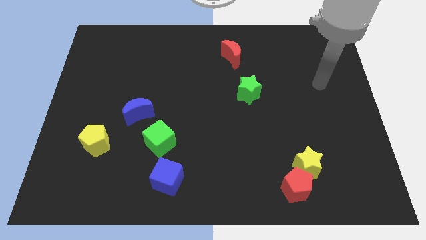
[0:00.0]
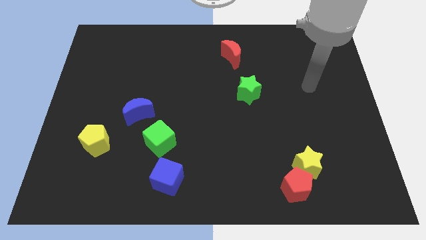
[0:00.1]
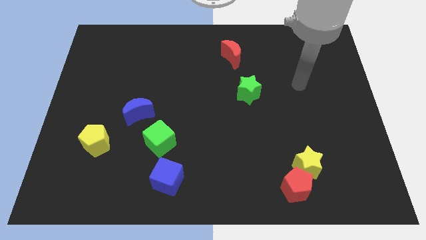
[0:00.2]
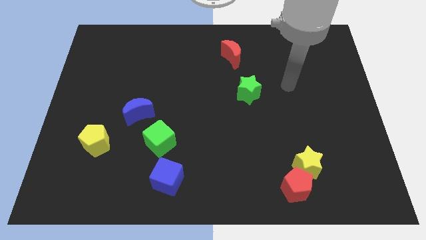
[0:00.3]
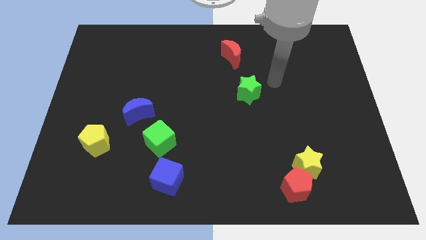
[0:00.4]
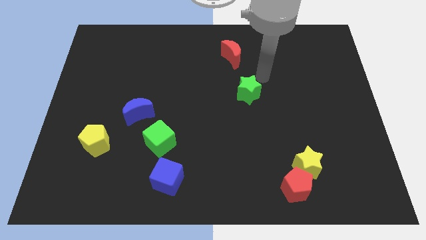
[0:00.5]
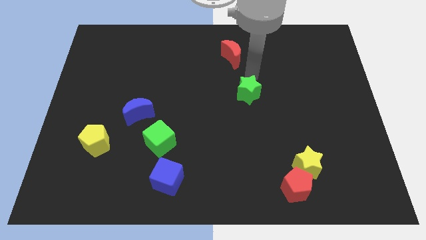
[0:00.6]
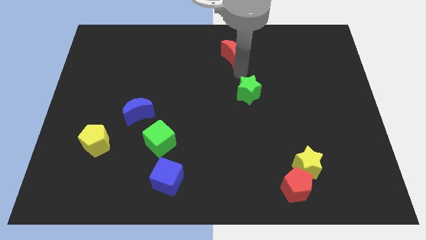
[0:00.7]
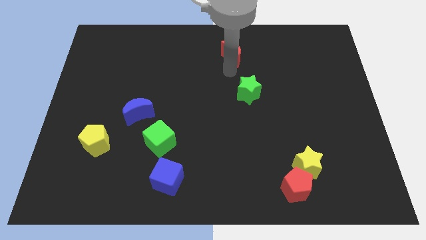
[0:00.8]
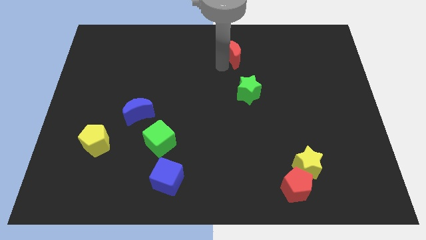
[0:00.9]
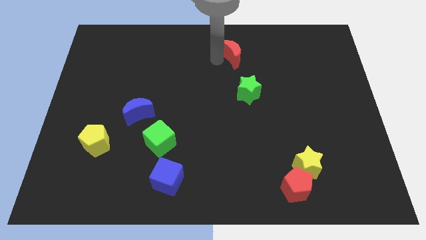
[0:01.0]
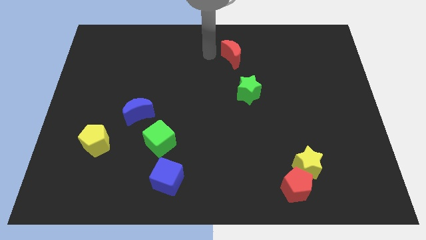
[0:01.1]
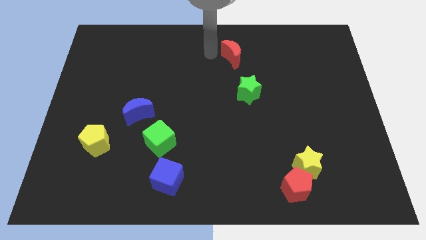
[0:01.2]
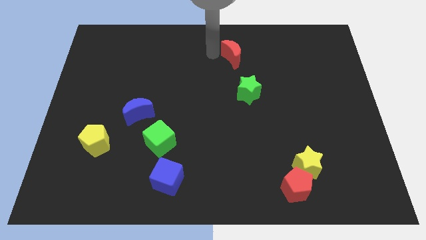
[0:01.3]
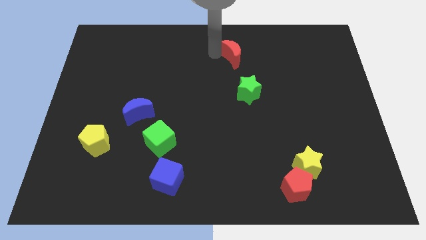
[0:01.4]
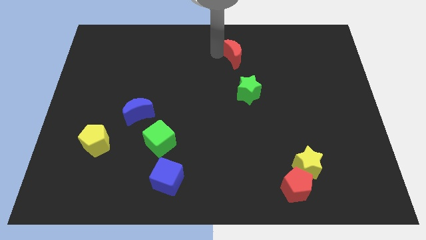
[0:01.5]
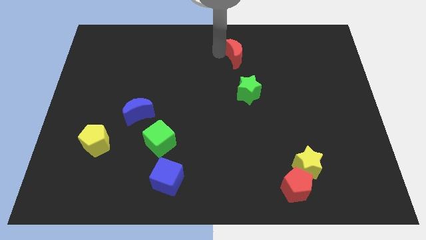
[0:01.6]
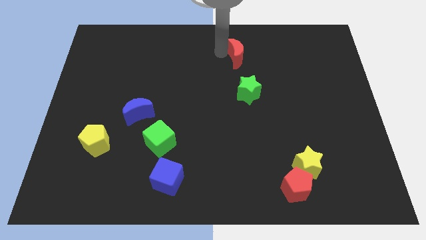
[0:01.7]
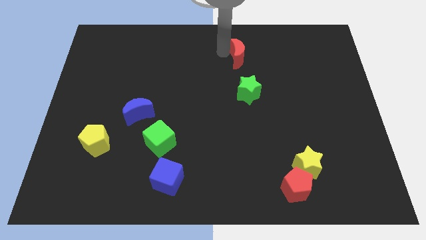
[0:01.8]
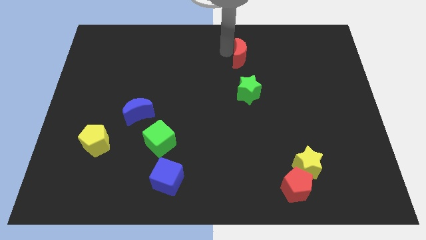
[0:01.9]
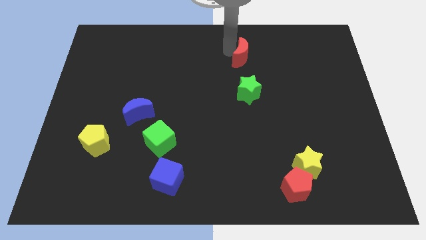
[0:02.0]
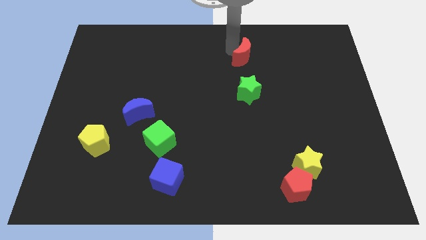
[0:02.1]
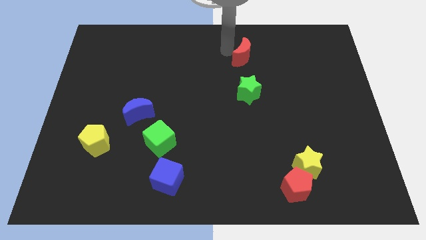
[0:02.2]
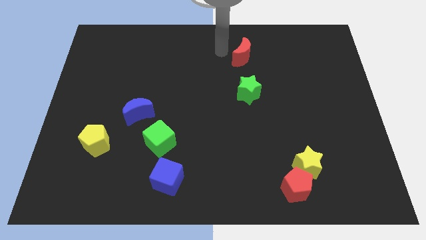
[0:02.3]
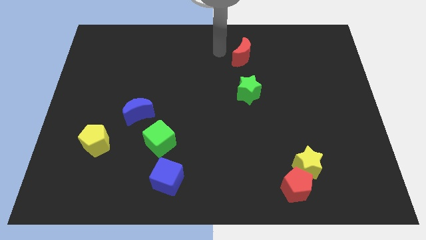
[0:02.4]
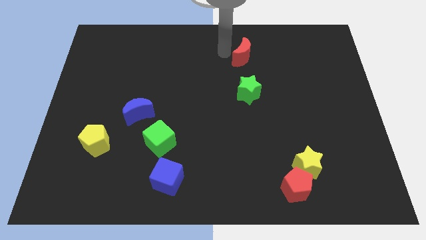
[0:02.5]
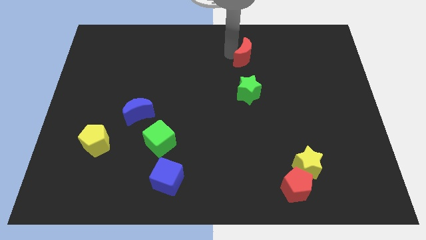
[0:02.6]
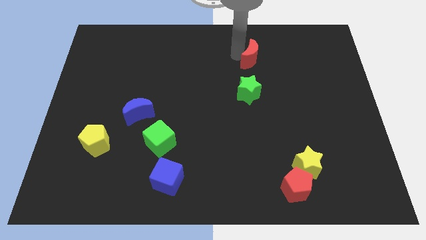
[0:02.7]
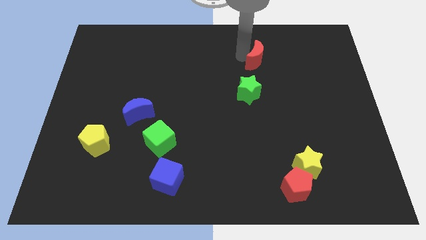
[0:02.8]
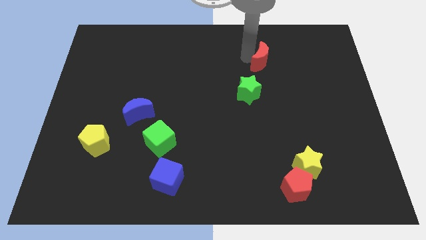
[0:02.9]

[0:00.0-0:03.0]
slightly move the red moon right

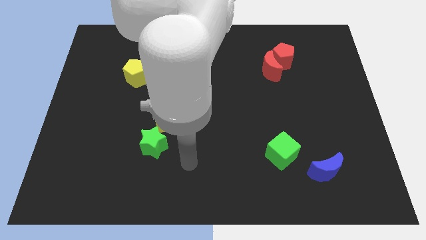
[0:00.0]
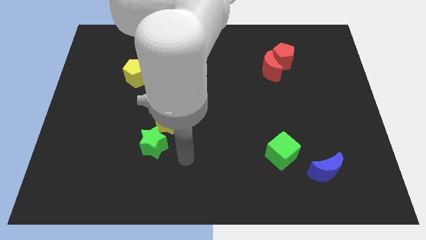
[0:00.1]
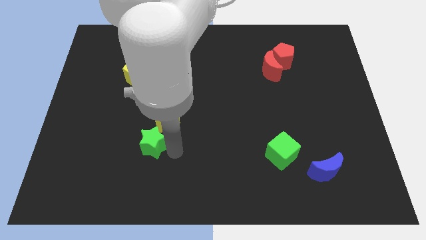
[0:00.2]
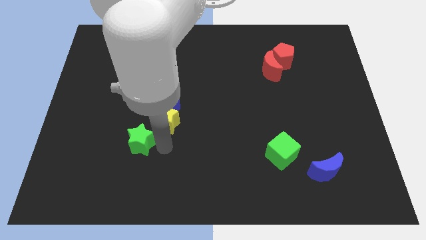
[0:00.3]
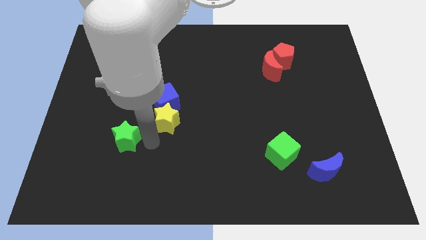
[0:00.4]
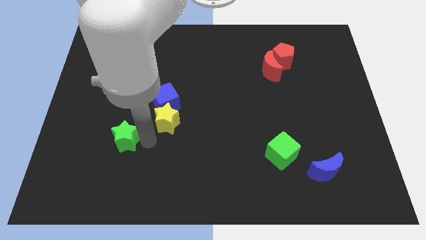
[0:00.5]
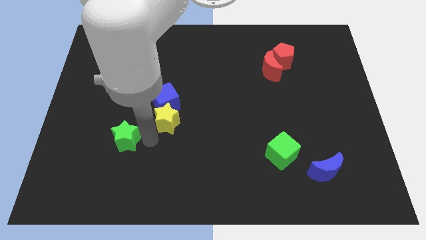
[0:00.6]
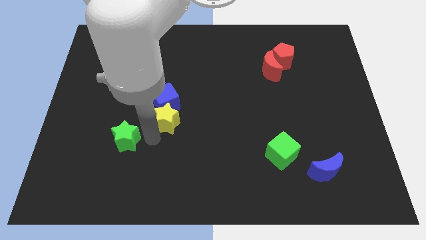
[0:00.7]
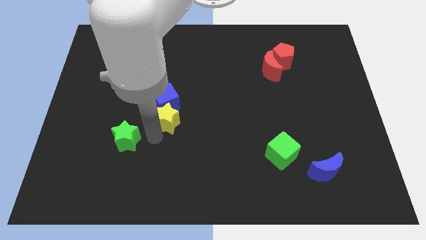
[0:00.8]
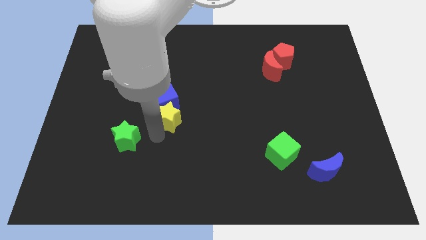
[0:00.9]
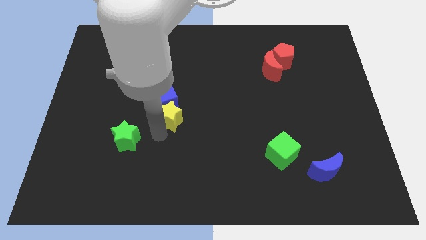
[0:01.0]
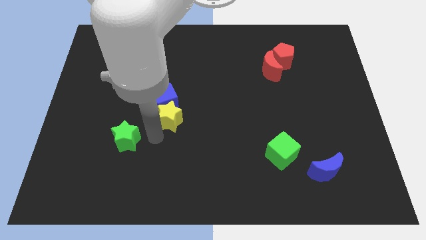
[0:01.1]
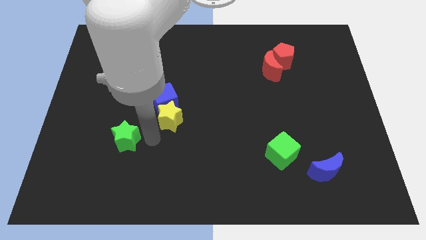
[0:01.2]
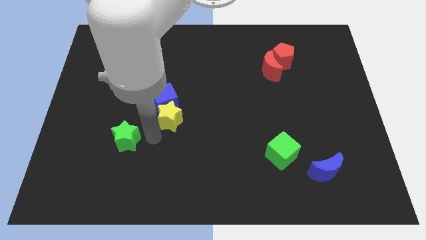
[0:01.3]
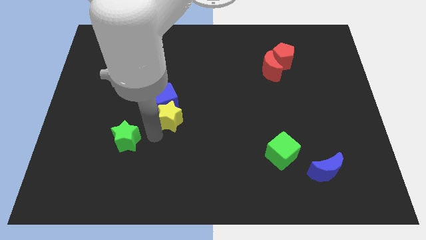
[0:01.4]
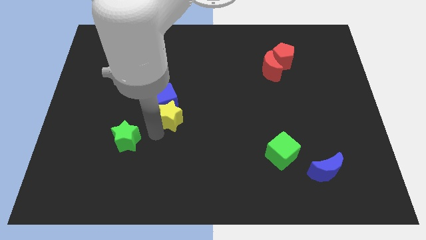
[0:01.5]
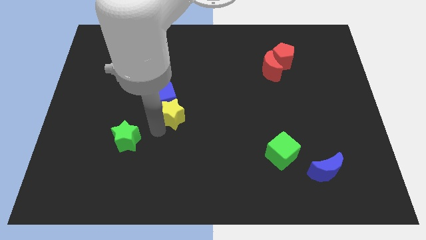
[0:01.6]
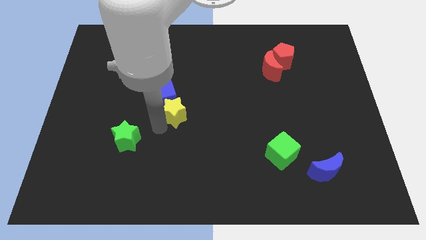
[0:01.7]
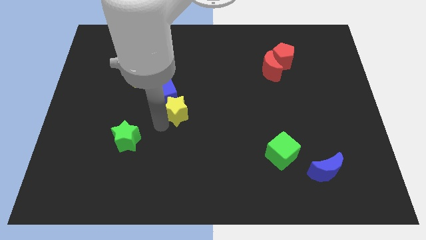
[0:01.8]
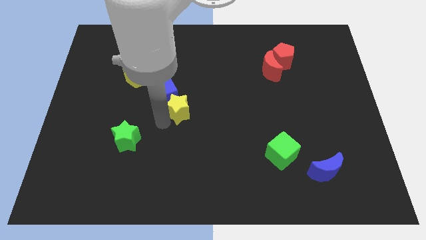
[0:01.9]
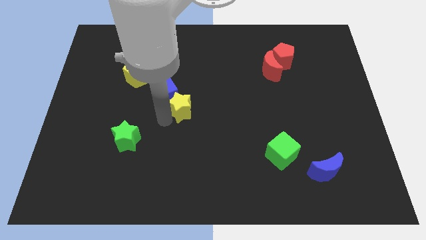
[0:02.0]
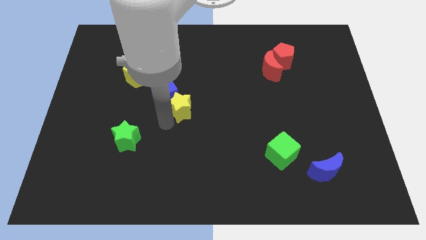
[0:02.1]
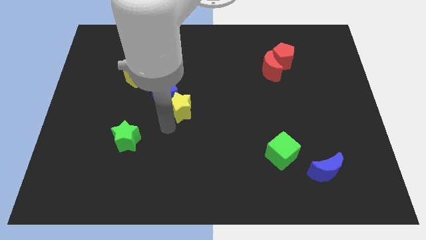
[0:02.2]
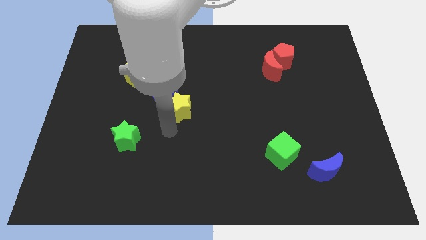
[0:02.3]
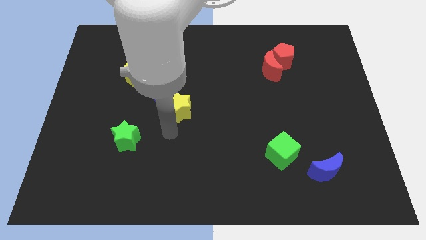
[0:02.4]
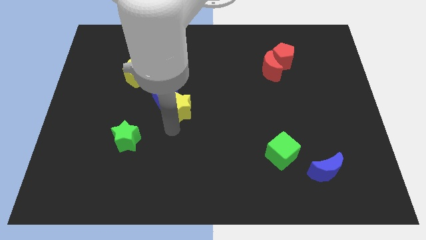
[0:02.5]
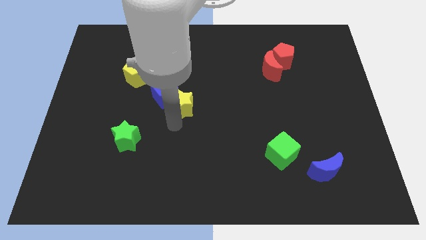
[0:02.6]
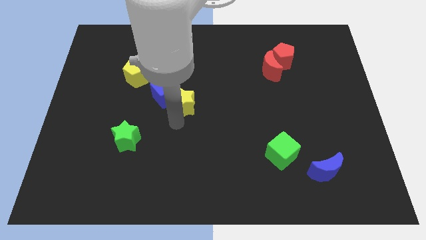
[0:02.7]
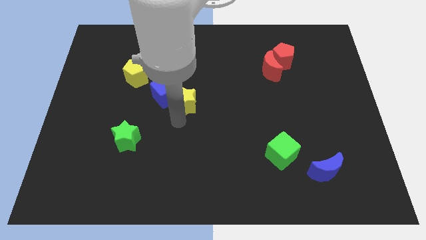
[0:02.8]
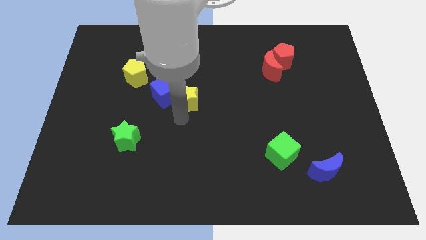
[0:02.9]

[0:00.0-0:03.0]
move the yellow star diagonally upwards and right a bit

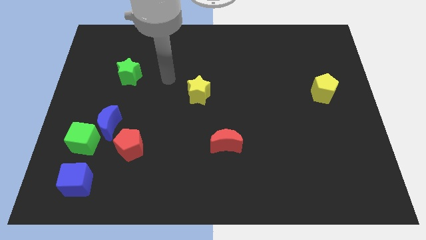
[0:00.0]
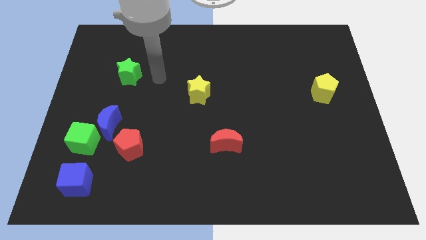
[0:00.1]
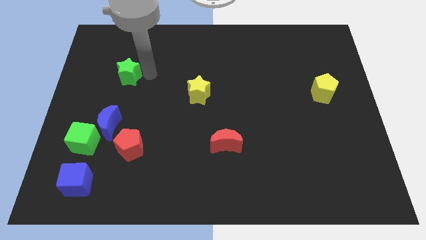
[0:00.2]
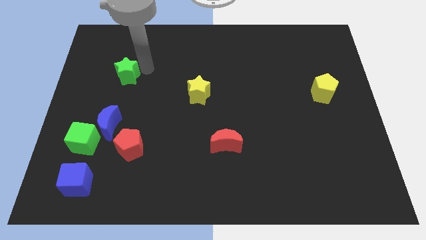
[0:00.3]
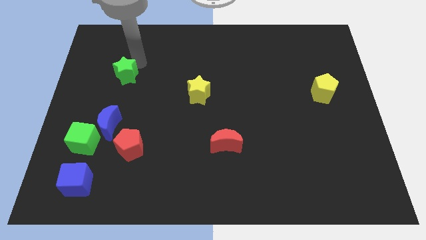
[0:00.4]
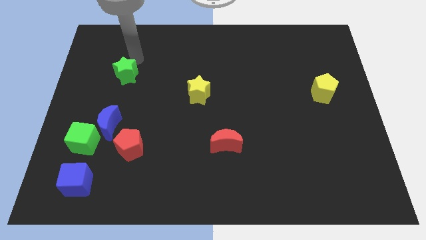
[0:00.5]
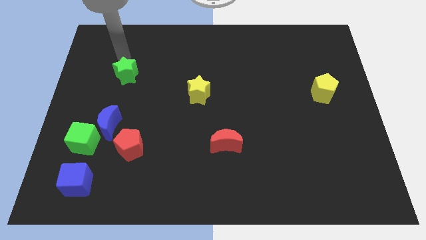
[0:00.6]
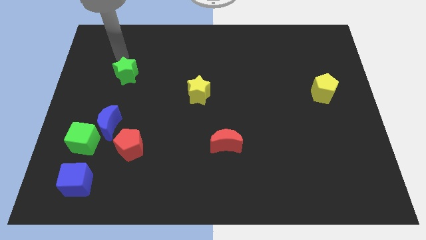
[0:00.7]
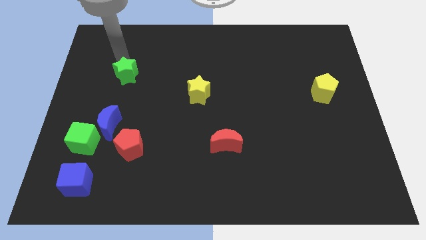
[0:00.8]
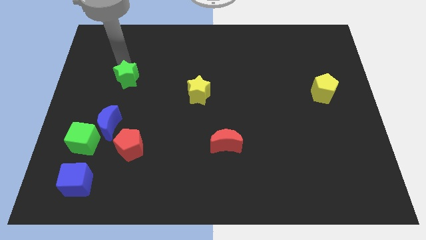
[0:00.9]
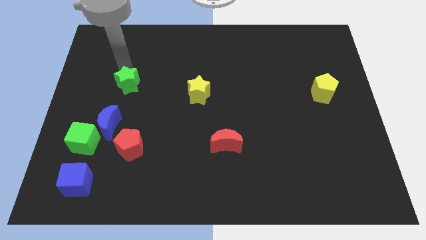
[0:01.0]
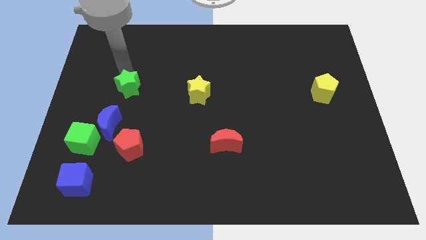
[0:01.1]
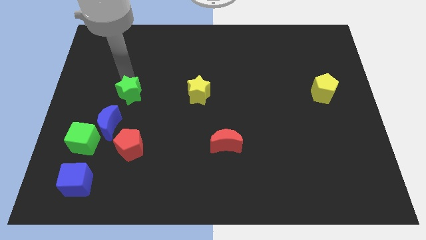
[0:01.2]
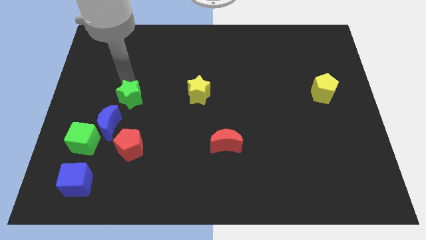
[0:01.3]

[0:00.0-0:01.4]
slide the green star down somewhat

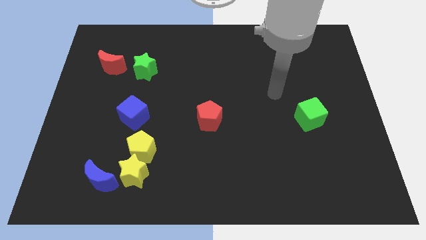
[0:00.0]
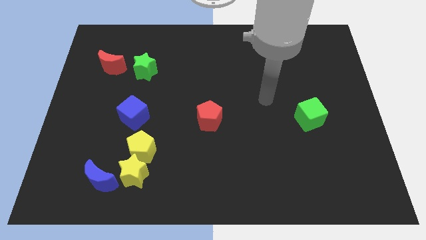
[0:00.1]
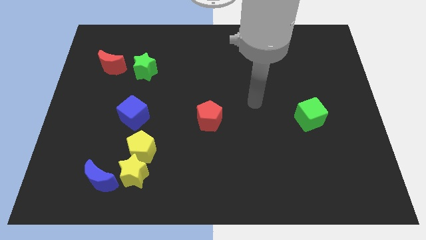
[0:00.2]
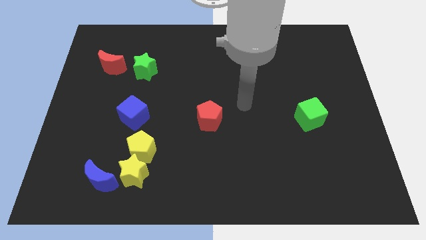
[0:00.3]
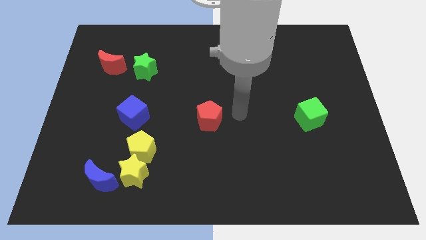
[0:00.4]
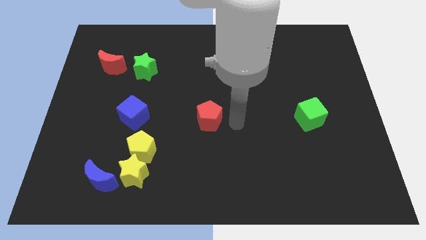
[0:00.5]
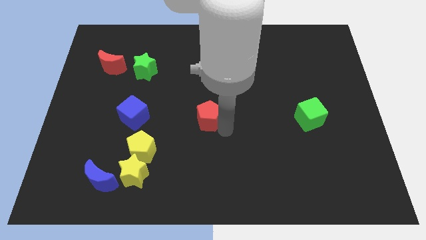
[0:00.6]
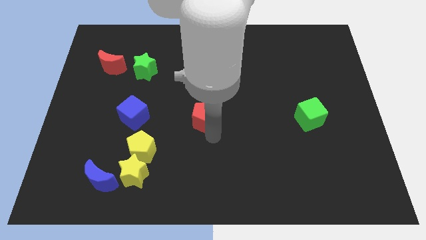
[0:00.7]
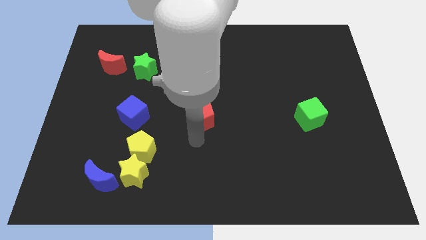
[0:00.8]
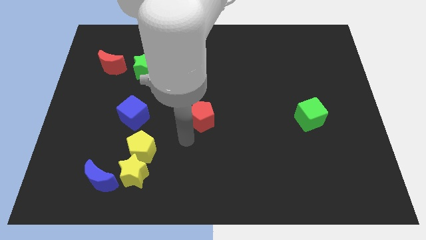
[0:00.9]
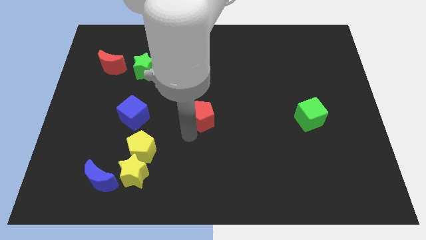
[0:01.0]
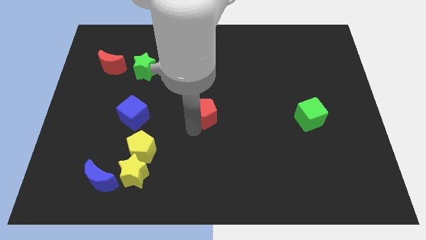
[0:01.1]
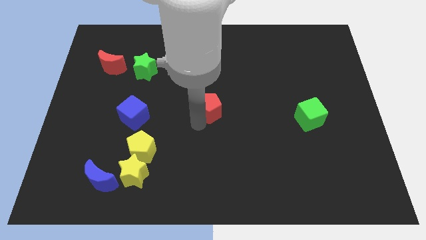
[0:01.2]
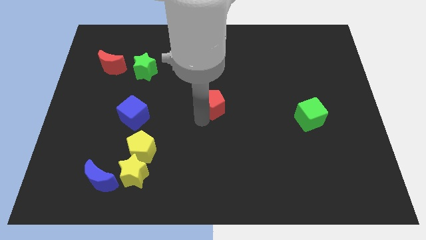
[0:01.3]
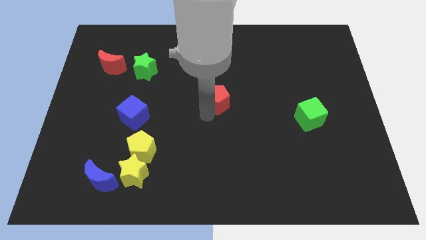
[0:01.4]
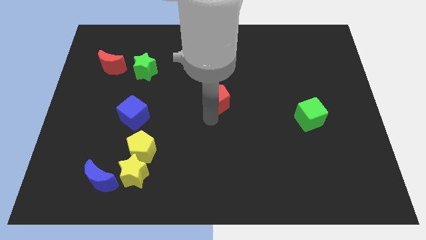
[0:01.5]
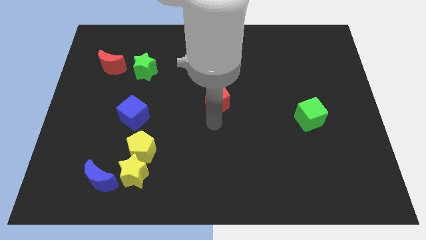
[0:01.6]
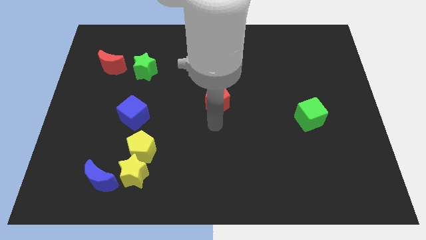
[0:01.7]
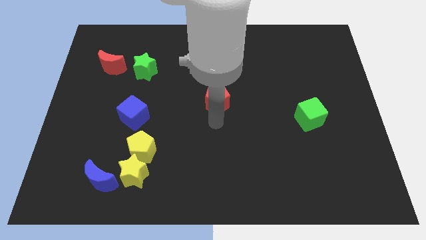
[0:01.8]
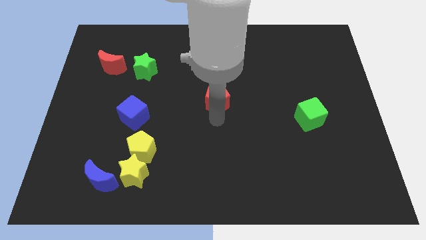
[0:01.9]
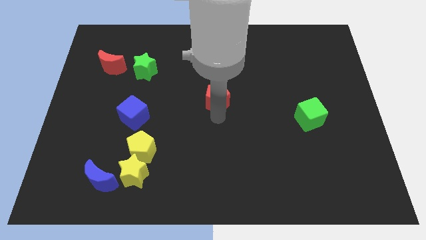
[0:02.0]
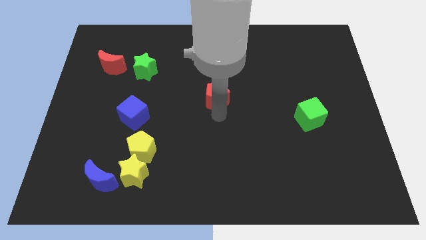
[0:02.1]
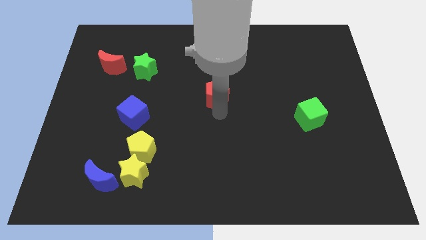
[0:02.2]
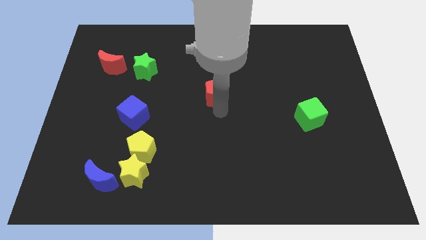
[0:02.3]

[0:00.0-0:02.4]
move the red pentagon slightly up
